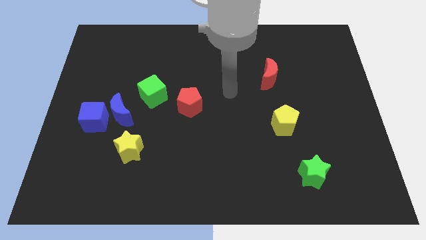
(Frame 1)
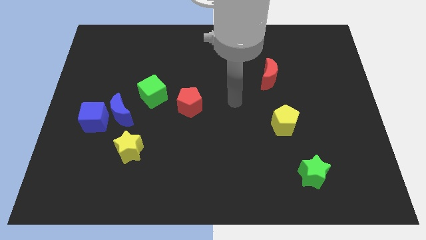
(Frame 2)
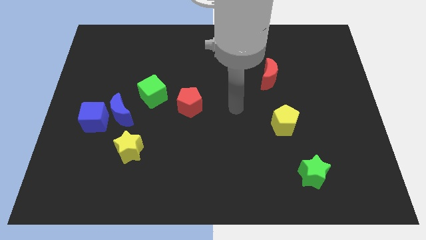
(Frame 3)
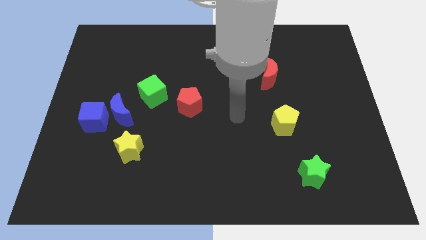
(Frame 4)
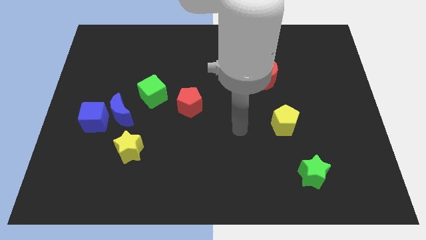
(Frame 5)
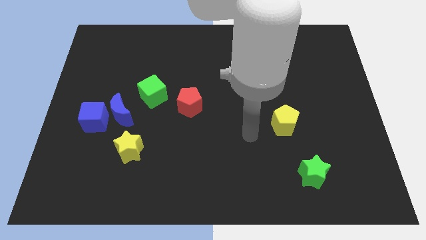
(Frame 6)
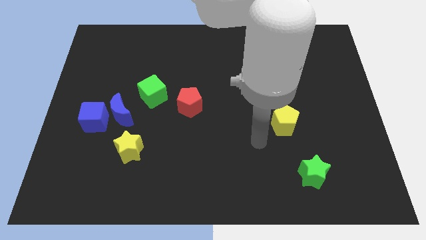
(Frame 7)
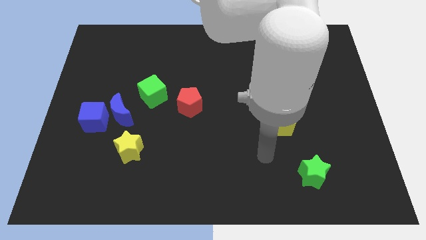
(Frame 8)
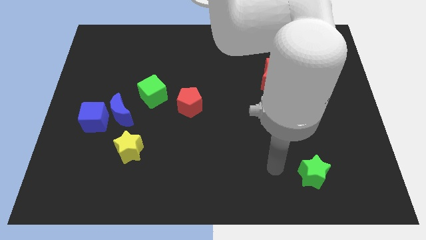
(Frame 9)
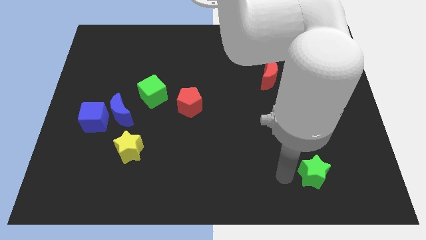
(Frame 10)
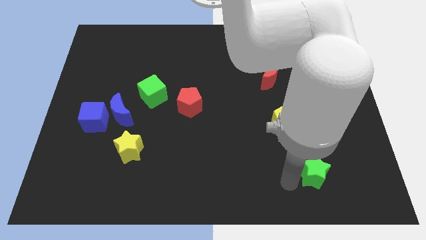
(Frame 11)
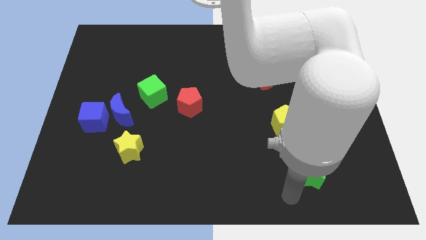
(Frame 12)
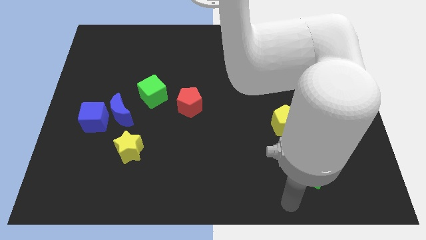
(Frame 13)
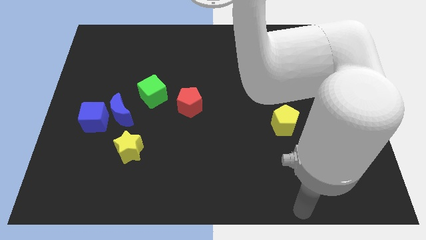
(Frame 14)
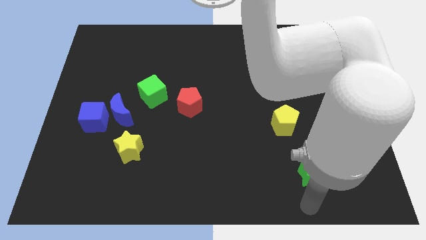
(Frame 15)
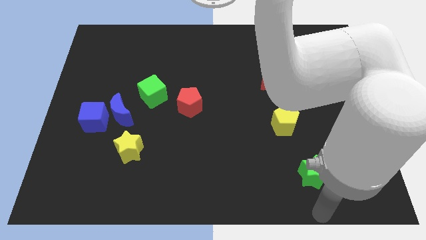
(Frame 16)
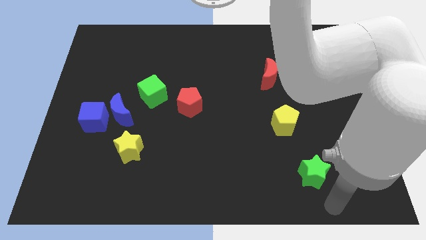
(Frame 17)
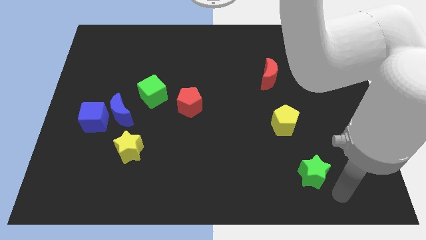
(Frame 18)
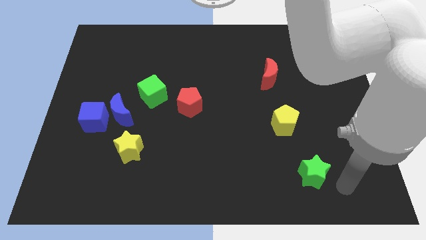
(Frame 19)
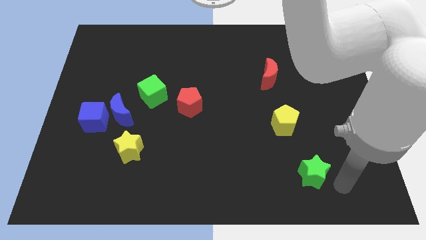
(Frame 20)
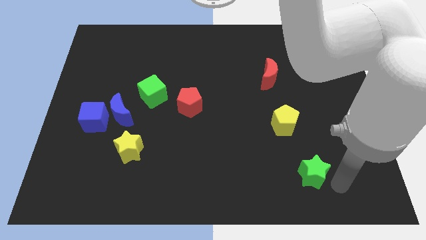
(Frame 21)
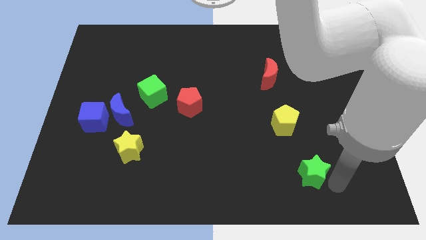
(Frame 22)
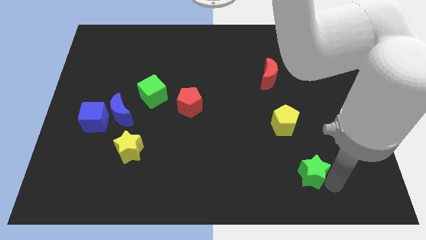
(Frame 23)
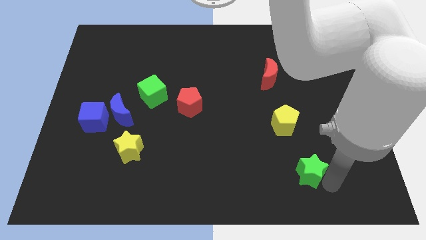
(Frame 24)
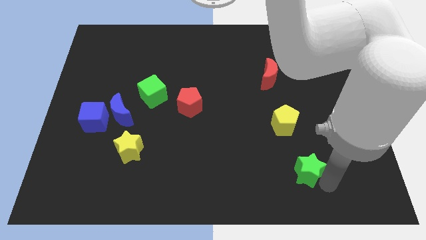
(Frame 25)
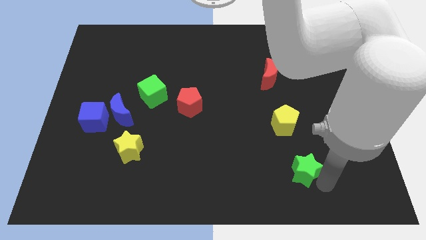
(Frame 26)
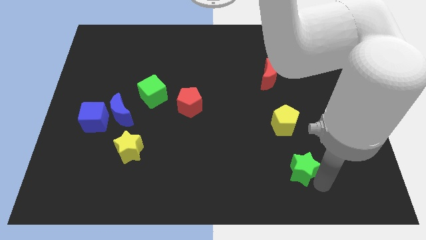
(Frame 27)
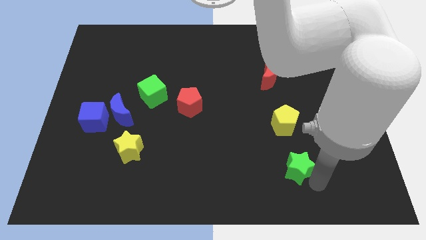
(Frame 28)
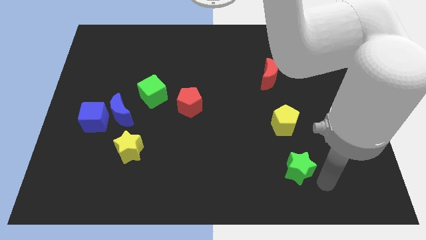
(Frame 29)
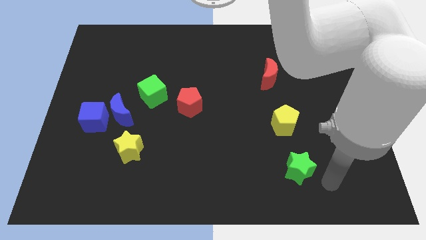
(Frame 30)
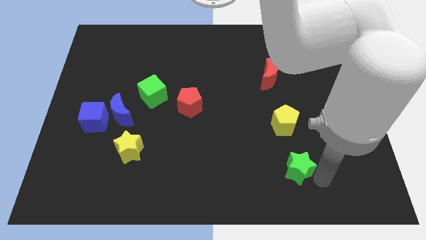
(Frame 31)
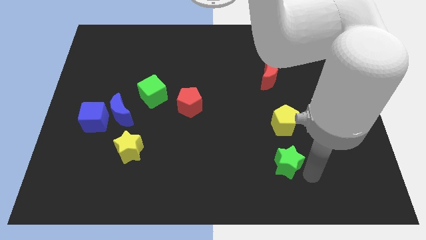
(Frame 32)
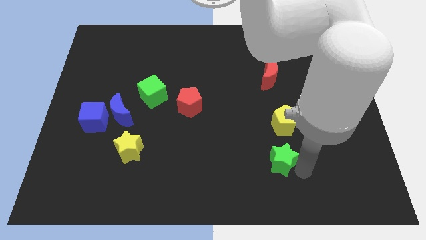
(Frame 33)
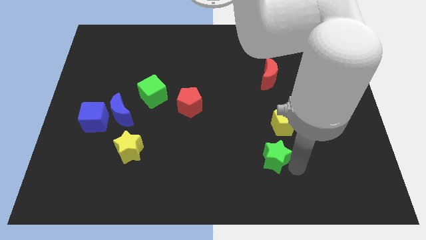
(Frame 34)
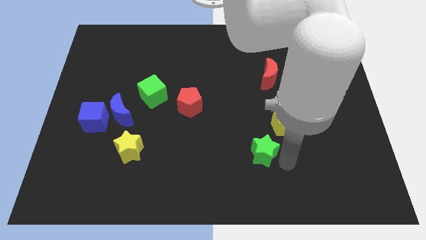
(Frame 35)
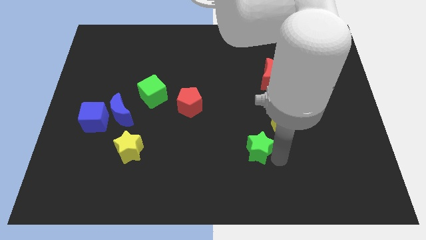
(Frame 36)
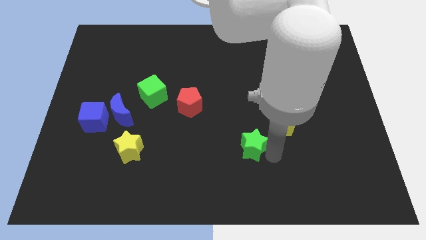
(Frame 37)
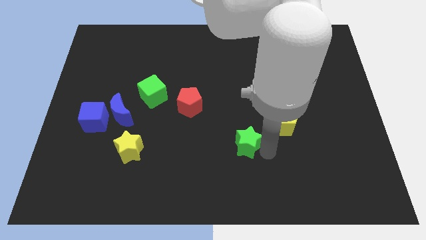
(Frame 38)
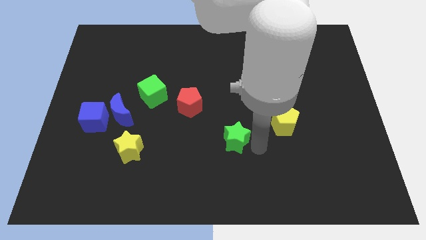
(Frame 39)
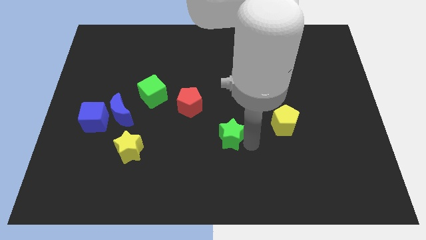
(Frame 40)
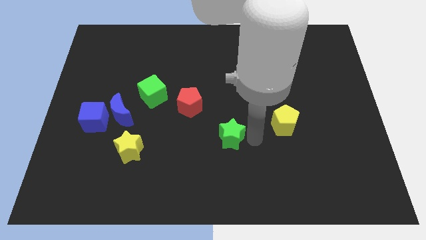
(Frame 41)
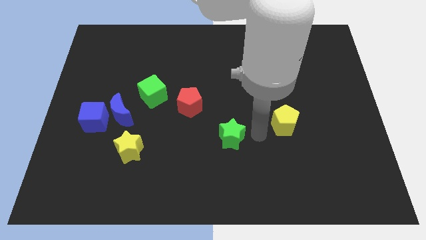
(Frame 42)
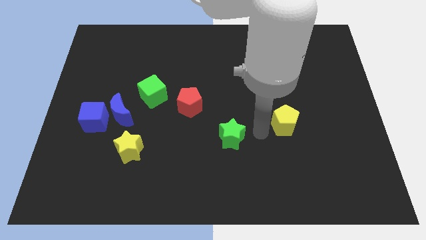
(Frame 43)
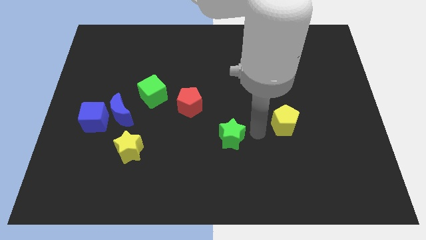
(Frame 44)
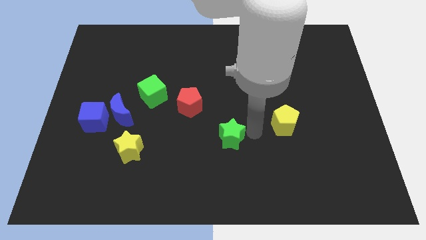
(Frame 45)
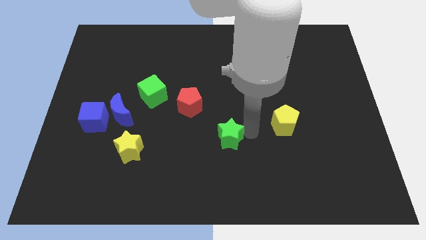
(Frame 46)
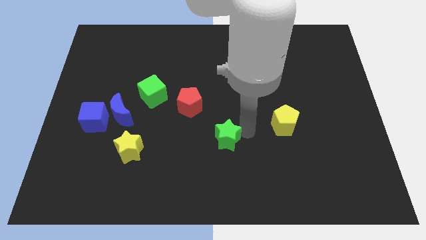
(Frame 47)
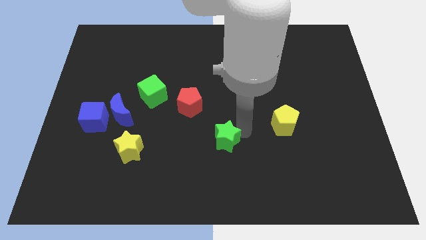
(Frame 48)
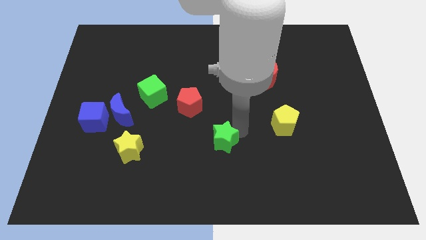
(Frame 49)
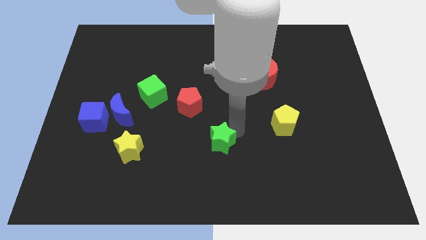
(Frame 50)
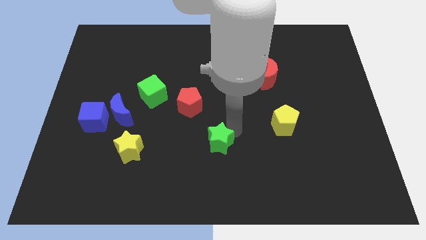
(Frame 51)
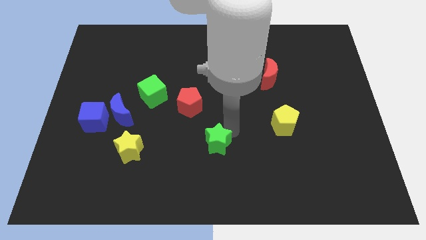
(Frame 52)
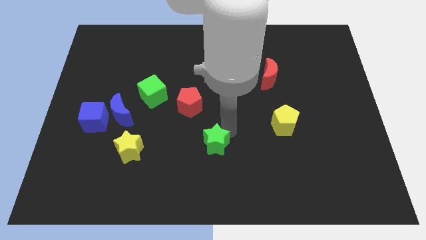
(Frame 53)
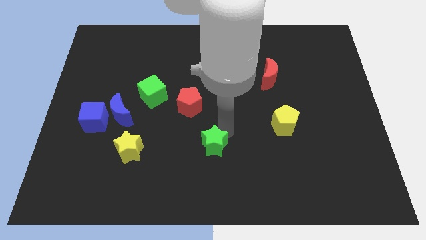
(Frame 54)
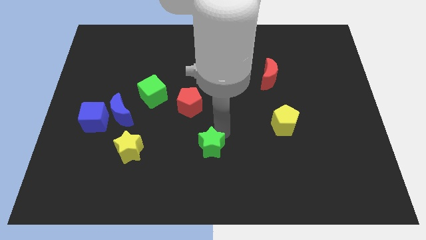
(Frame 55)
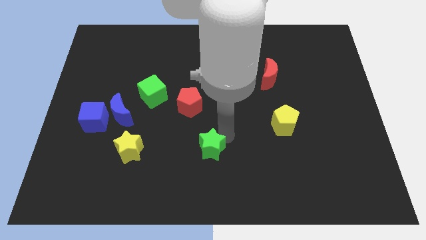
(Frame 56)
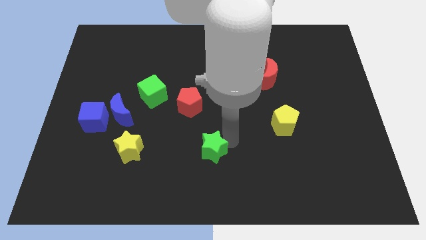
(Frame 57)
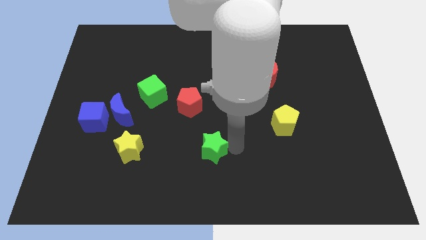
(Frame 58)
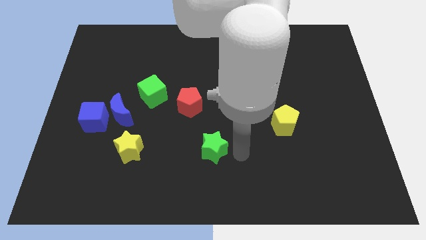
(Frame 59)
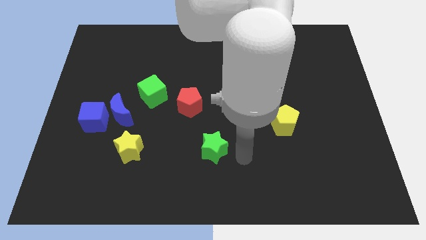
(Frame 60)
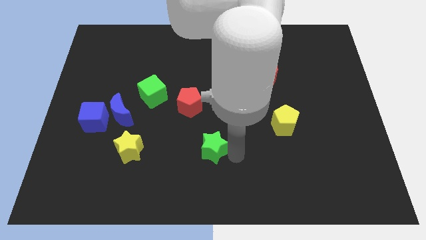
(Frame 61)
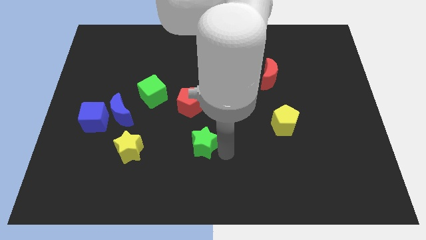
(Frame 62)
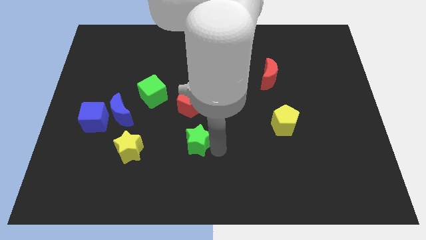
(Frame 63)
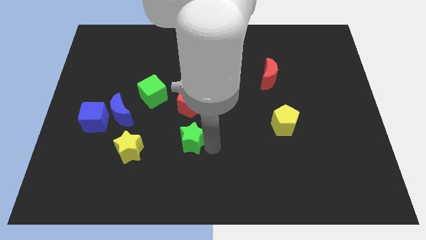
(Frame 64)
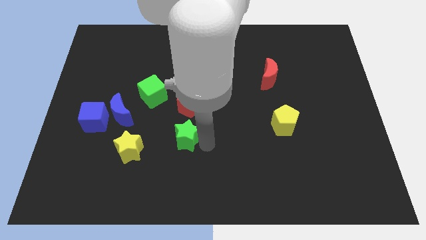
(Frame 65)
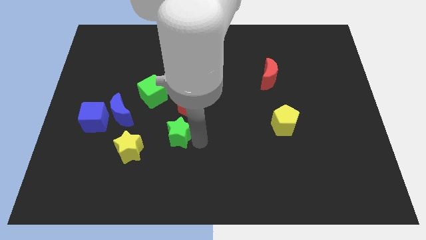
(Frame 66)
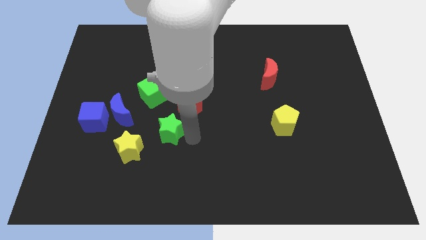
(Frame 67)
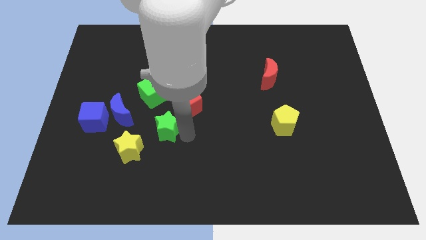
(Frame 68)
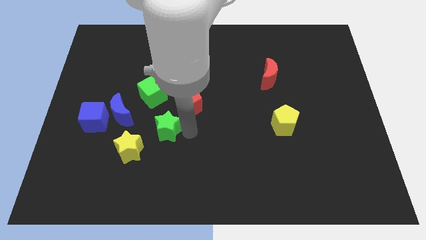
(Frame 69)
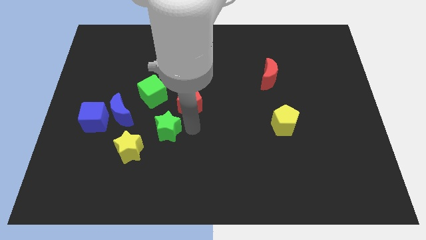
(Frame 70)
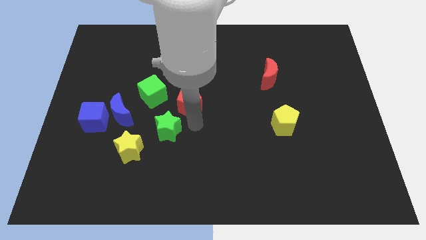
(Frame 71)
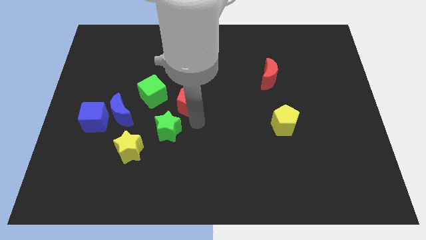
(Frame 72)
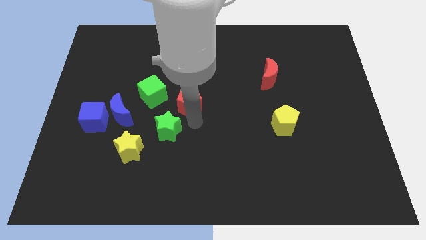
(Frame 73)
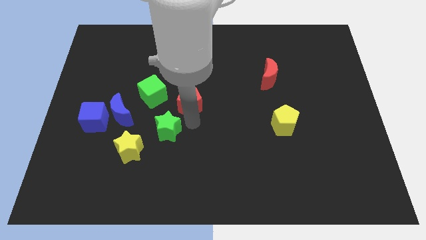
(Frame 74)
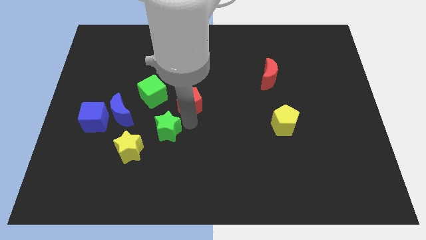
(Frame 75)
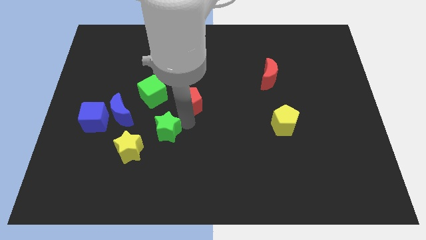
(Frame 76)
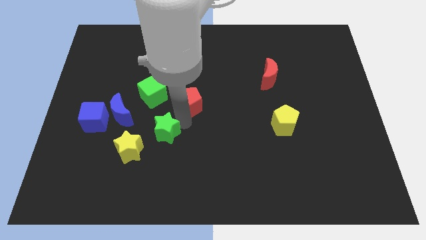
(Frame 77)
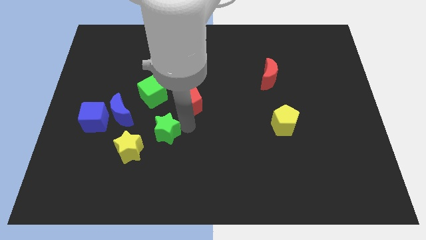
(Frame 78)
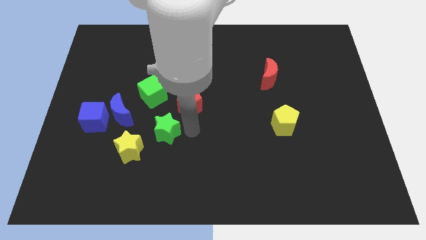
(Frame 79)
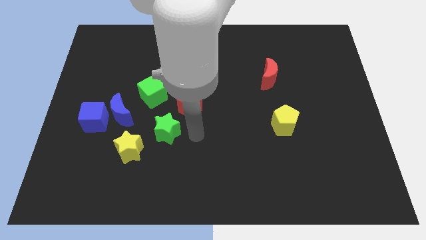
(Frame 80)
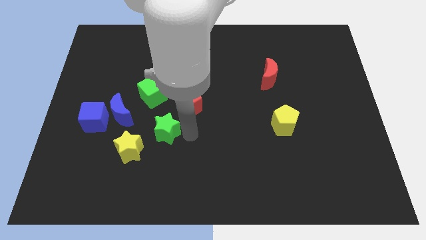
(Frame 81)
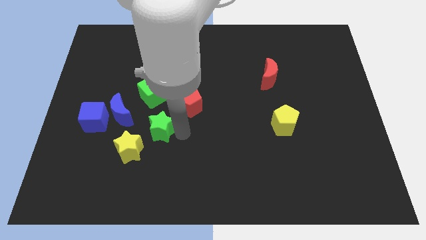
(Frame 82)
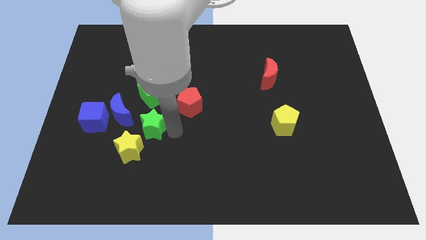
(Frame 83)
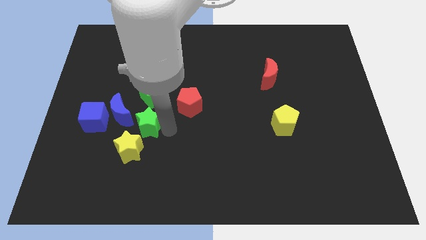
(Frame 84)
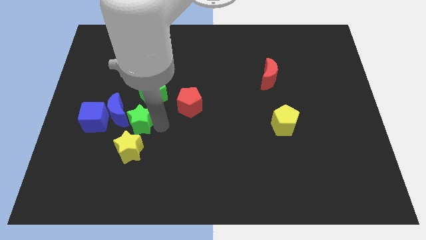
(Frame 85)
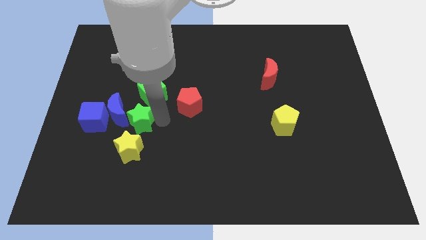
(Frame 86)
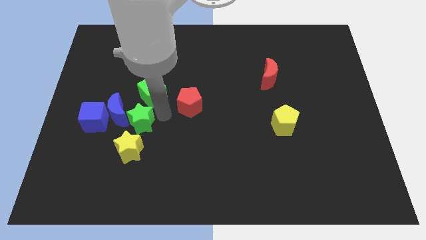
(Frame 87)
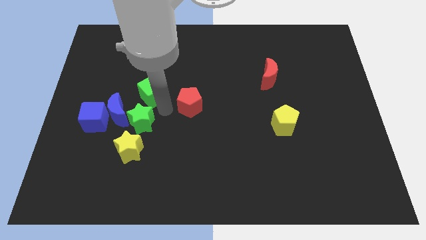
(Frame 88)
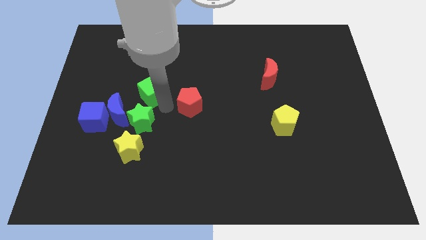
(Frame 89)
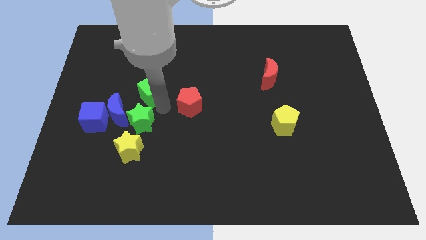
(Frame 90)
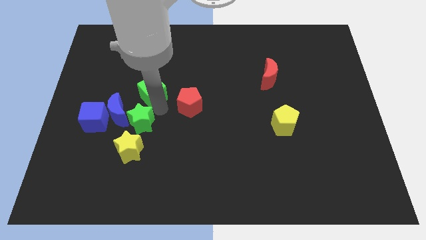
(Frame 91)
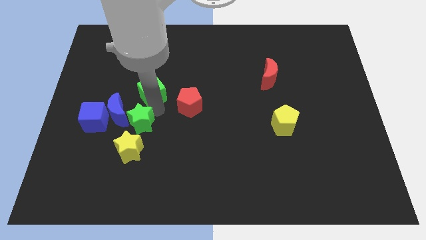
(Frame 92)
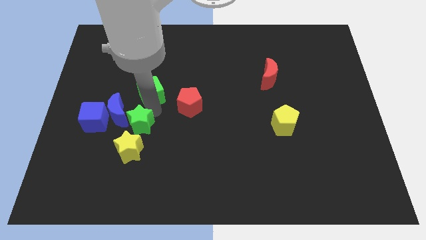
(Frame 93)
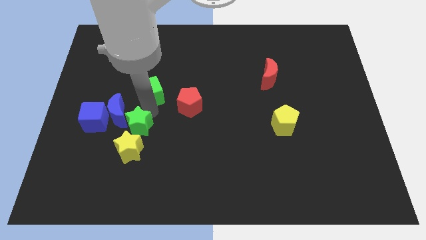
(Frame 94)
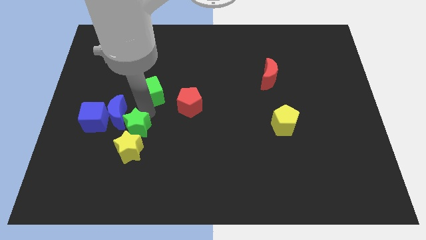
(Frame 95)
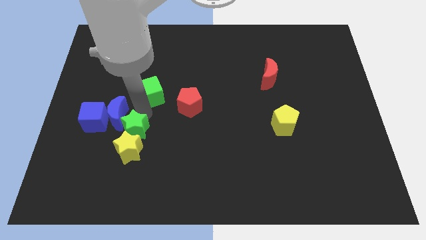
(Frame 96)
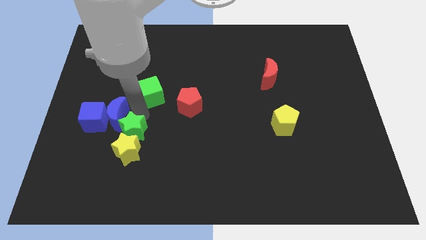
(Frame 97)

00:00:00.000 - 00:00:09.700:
push the green star to the bottom right side of the blue cube
